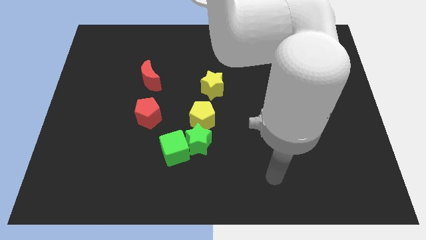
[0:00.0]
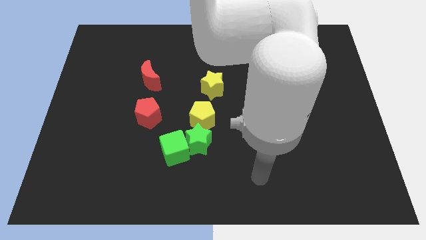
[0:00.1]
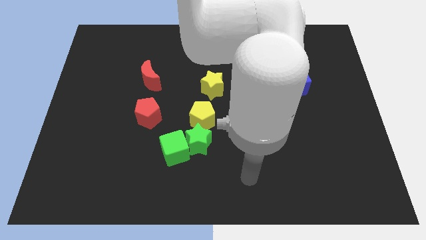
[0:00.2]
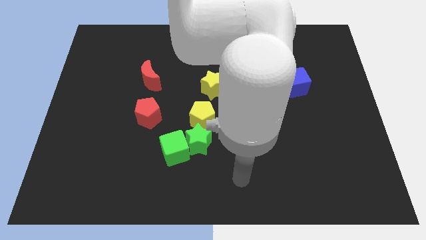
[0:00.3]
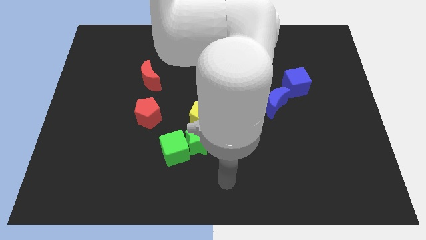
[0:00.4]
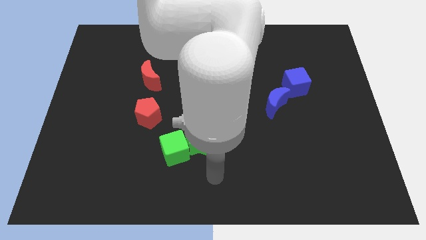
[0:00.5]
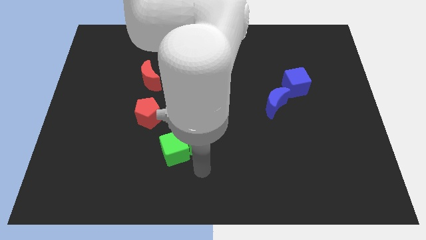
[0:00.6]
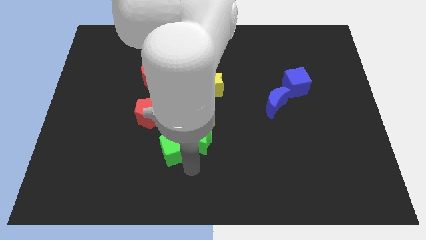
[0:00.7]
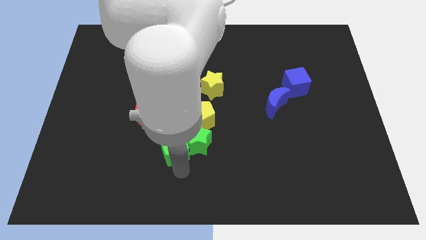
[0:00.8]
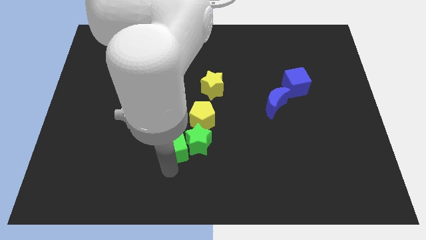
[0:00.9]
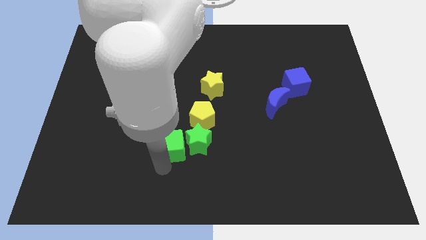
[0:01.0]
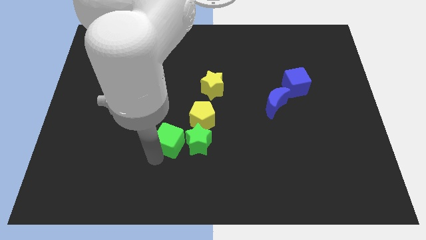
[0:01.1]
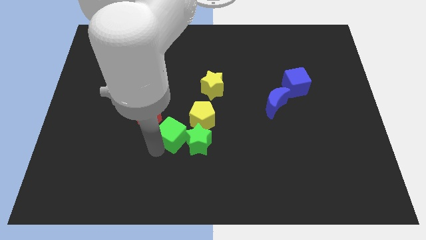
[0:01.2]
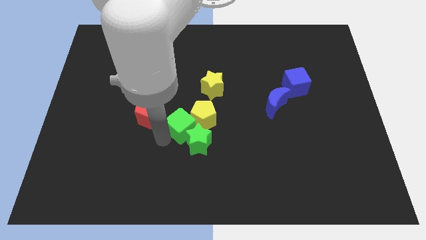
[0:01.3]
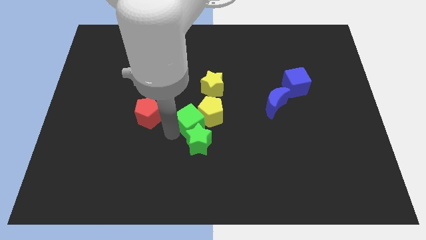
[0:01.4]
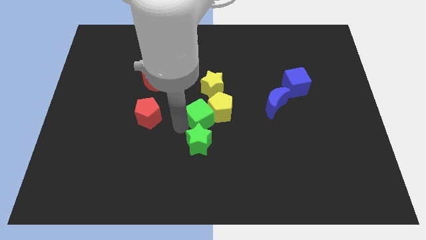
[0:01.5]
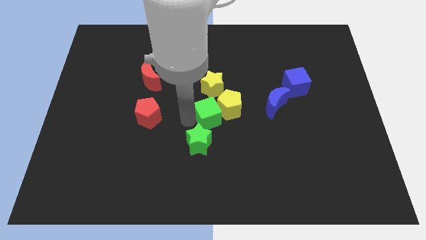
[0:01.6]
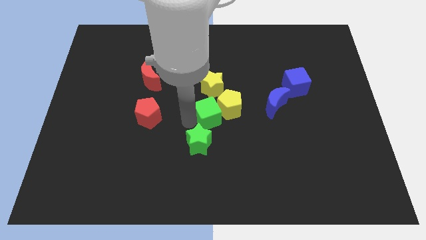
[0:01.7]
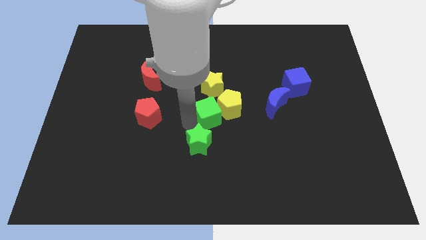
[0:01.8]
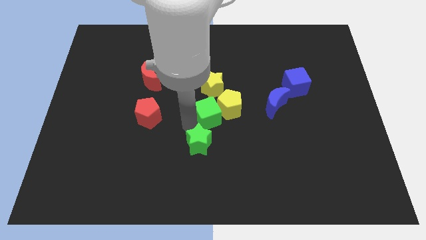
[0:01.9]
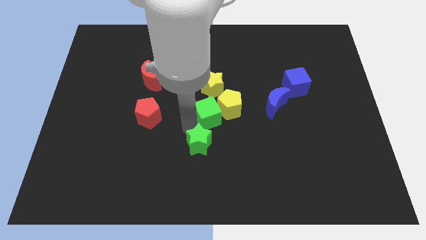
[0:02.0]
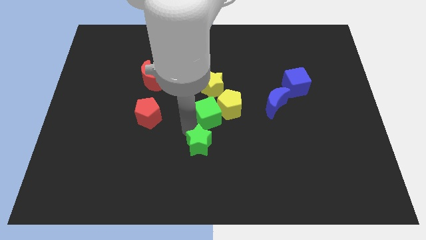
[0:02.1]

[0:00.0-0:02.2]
move the green star away from the green cube and yellow pentagon

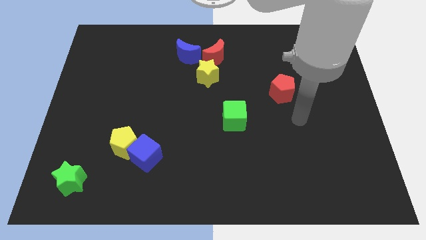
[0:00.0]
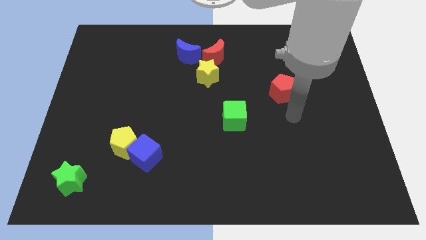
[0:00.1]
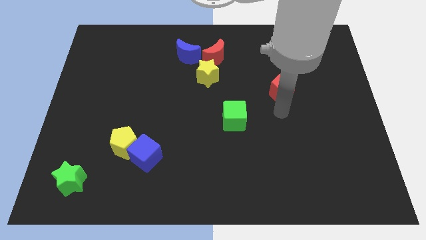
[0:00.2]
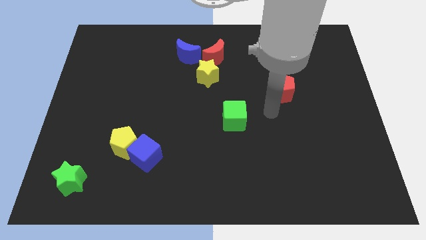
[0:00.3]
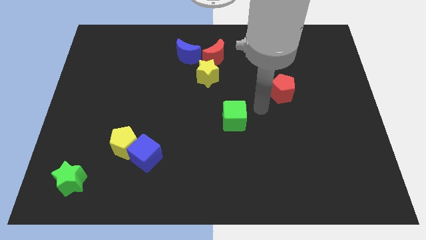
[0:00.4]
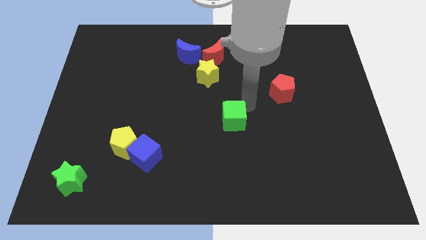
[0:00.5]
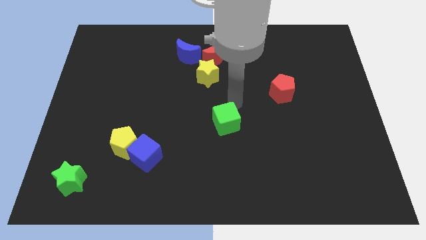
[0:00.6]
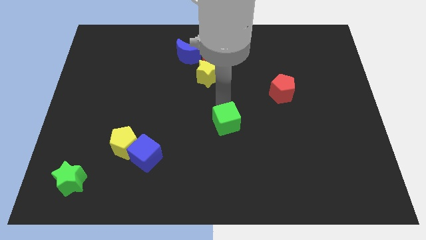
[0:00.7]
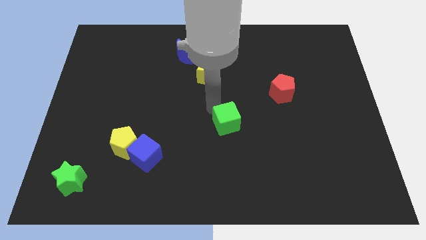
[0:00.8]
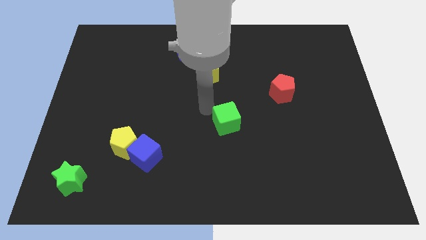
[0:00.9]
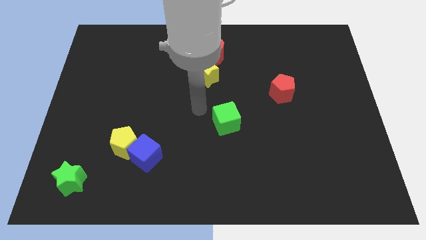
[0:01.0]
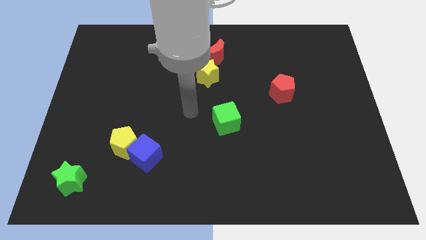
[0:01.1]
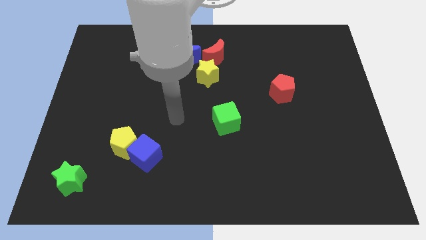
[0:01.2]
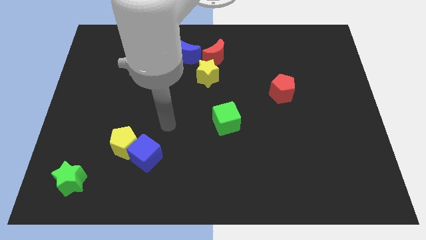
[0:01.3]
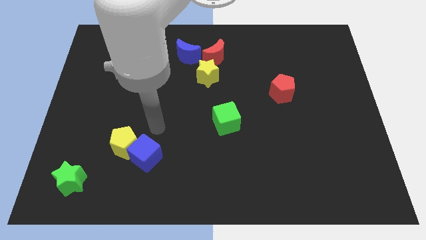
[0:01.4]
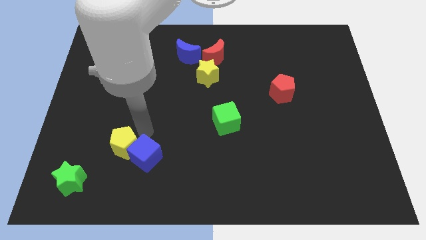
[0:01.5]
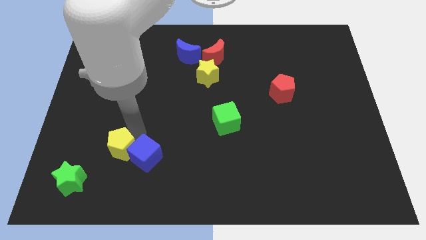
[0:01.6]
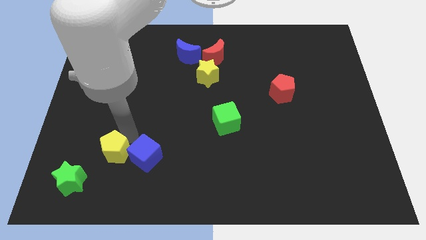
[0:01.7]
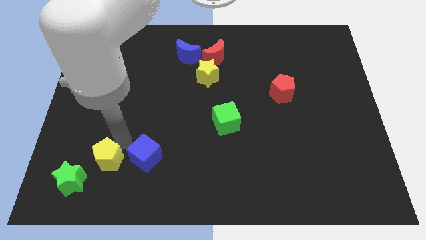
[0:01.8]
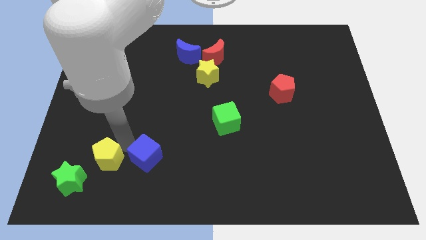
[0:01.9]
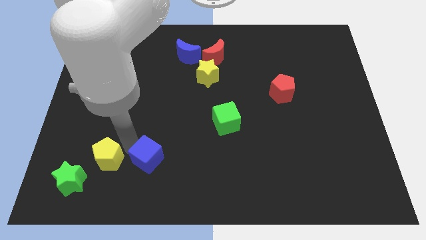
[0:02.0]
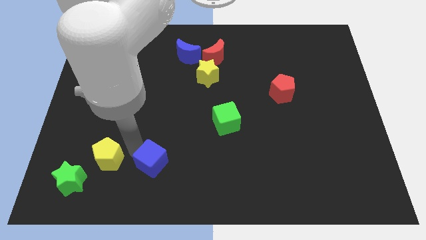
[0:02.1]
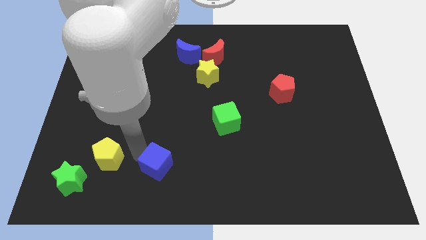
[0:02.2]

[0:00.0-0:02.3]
move the blue cube away from the yellow pentagon

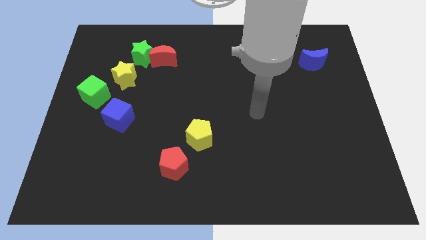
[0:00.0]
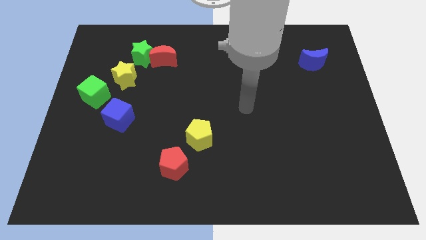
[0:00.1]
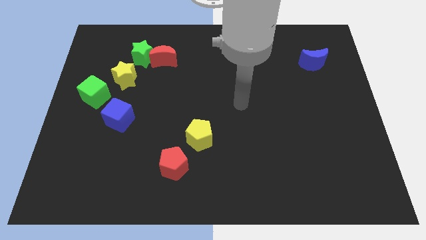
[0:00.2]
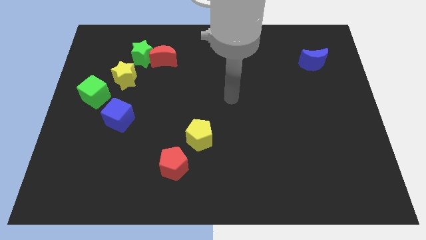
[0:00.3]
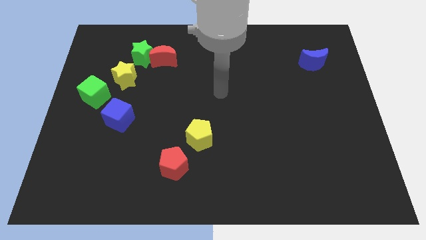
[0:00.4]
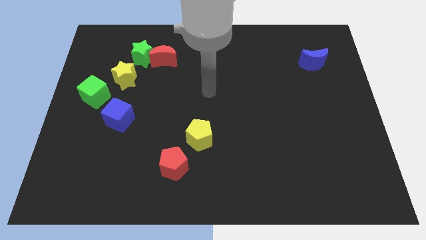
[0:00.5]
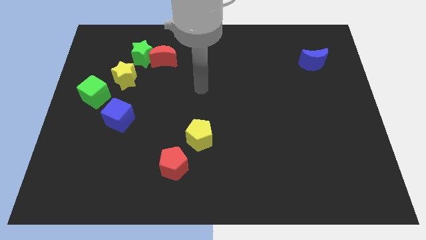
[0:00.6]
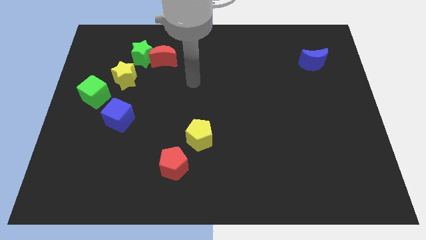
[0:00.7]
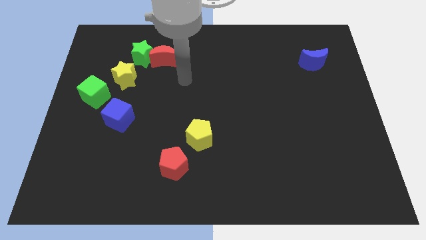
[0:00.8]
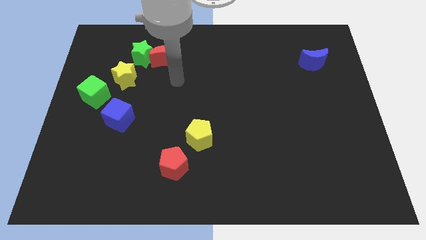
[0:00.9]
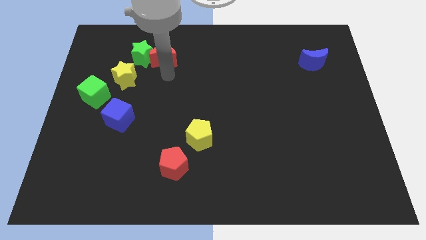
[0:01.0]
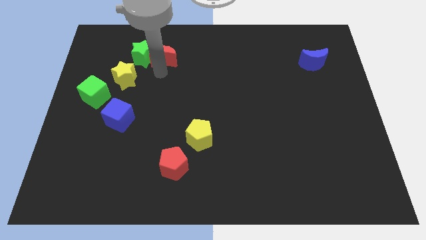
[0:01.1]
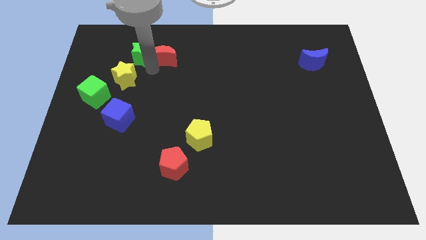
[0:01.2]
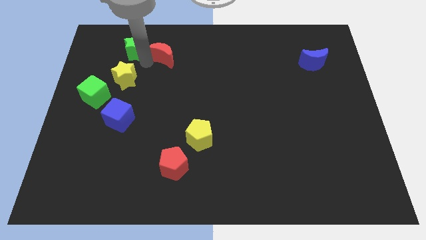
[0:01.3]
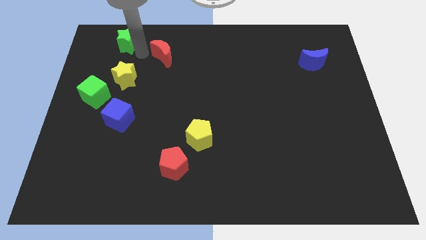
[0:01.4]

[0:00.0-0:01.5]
pull the red moon apart from the green star

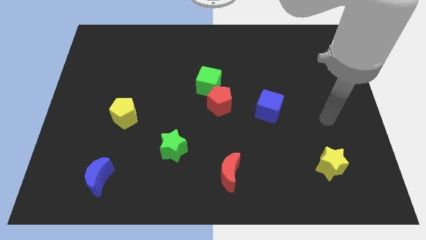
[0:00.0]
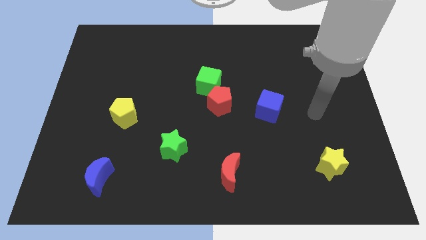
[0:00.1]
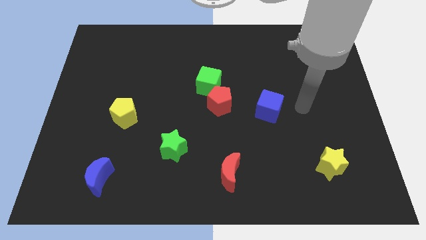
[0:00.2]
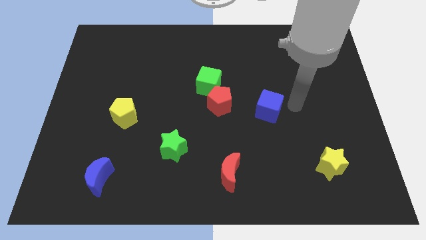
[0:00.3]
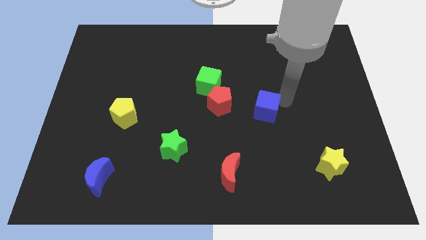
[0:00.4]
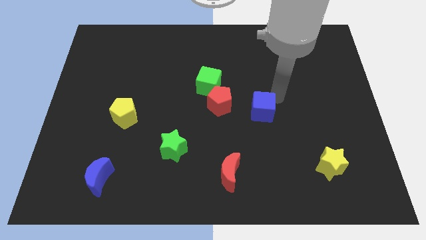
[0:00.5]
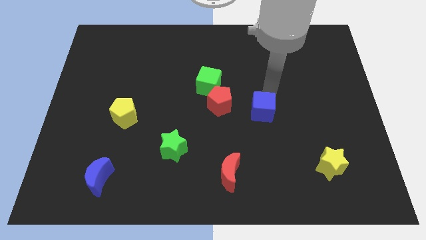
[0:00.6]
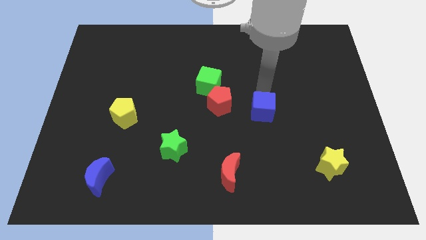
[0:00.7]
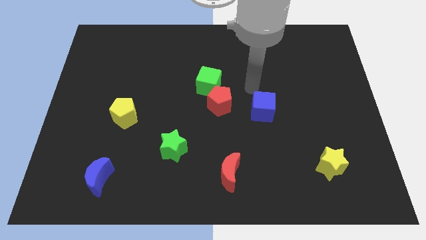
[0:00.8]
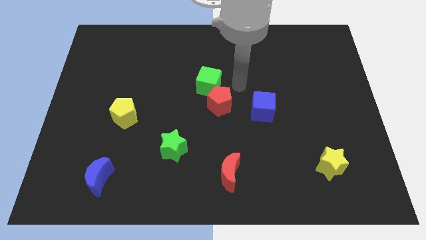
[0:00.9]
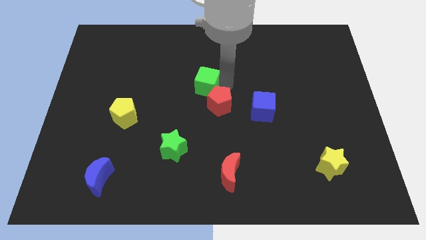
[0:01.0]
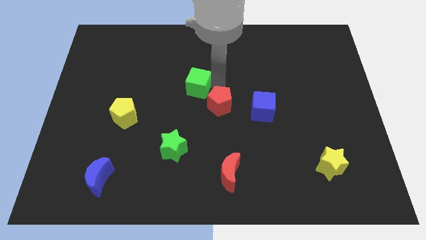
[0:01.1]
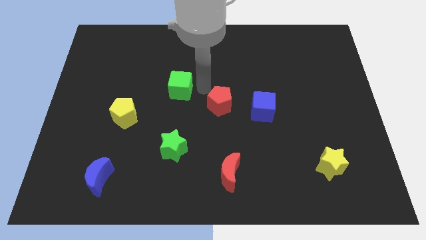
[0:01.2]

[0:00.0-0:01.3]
move the red pentagon away from the green cube

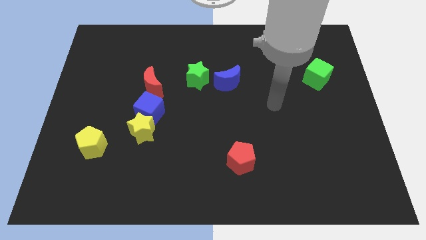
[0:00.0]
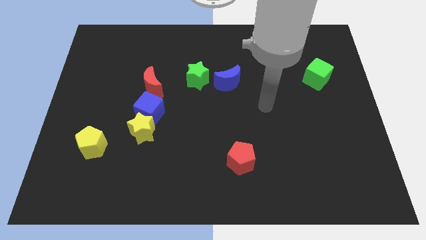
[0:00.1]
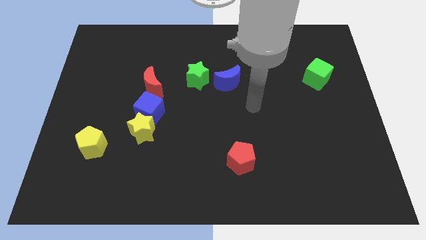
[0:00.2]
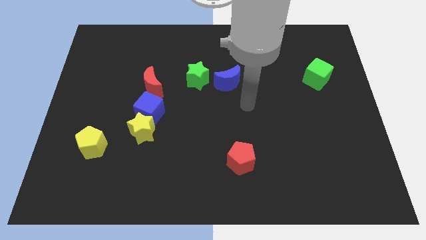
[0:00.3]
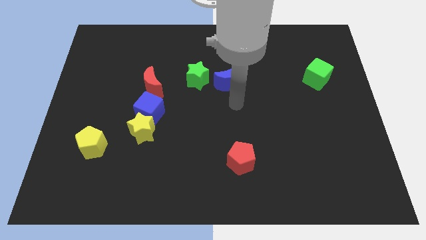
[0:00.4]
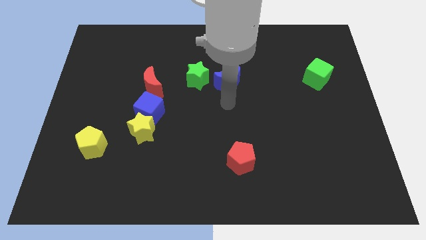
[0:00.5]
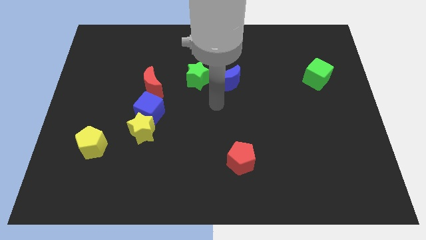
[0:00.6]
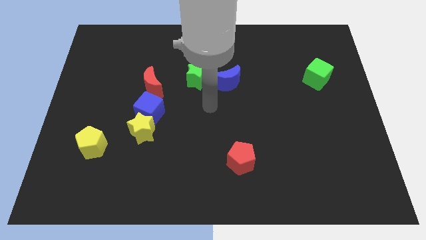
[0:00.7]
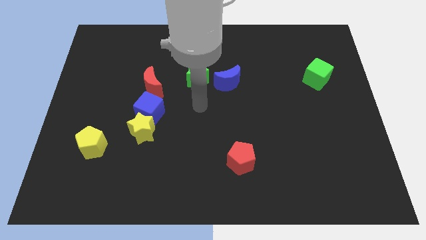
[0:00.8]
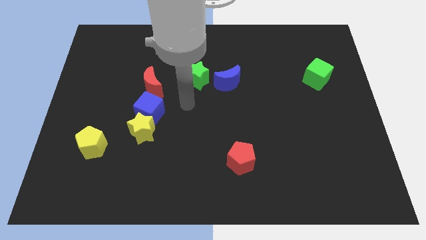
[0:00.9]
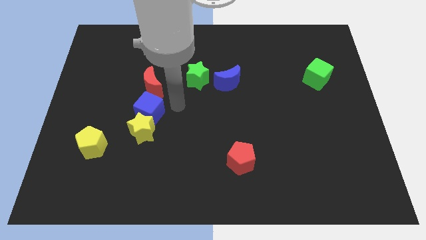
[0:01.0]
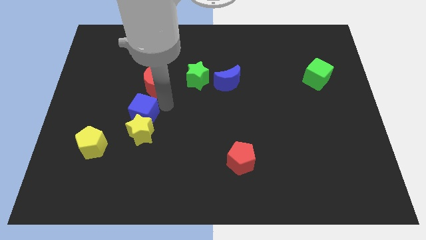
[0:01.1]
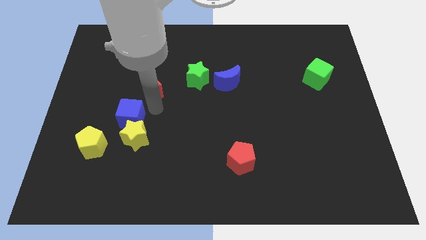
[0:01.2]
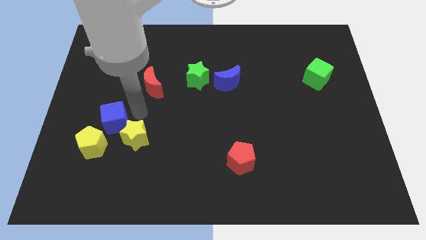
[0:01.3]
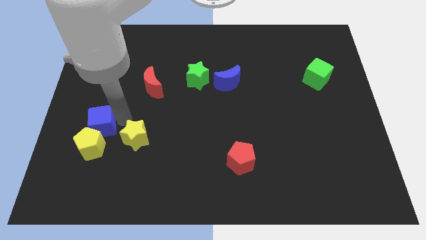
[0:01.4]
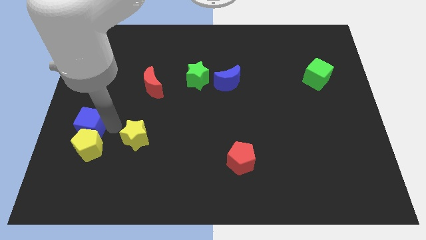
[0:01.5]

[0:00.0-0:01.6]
separate the yellow star from the blue cube

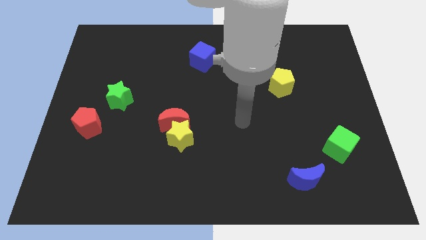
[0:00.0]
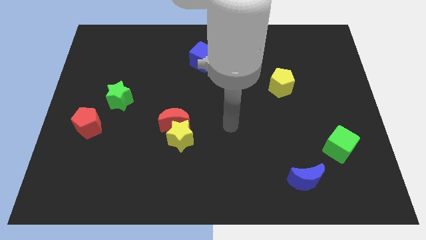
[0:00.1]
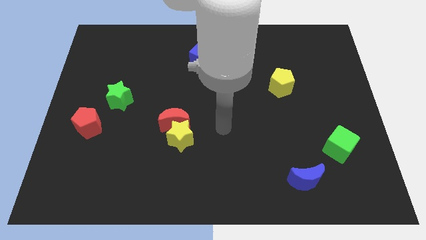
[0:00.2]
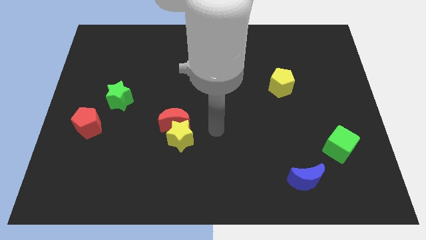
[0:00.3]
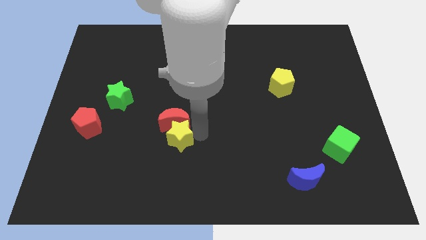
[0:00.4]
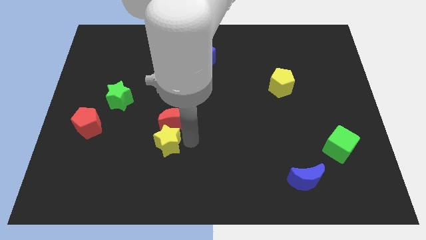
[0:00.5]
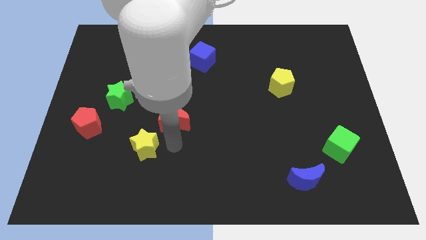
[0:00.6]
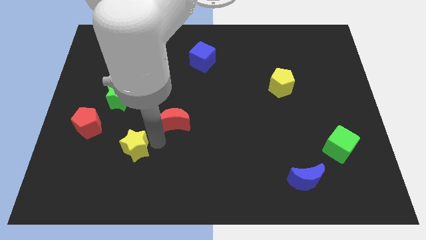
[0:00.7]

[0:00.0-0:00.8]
separate the red moon from the yellow star
